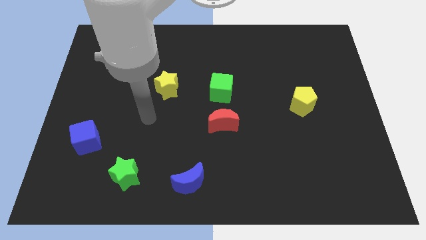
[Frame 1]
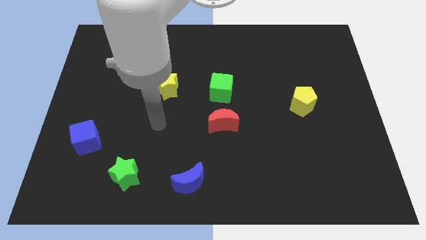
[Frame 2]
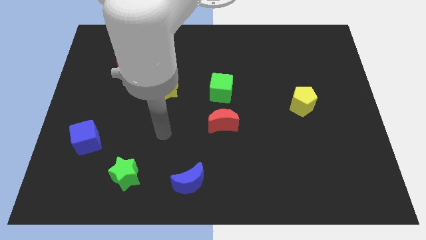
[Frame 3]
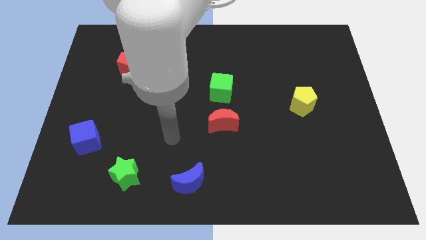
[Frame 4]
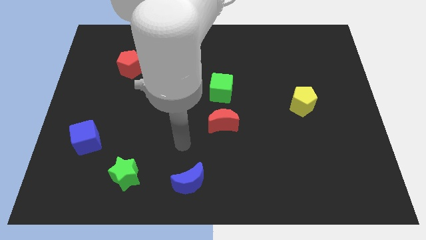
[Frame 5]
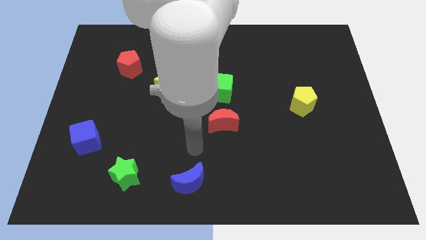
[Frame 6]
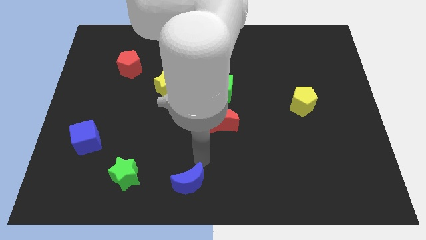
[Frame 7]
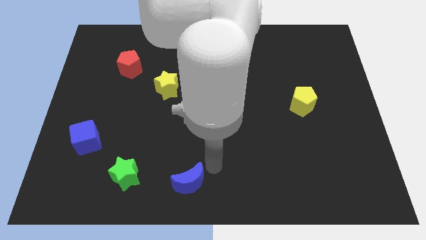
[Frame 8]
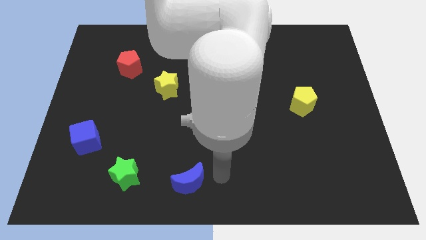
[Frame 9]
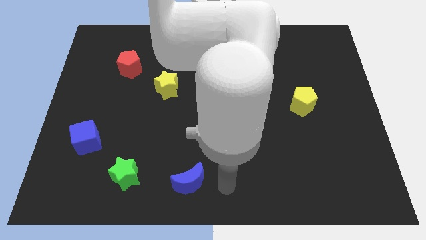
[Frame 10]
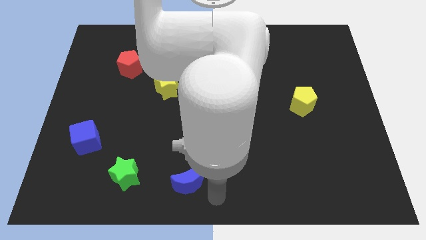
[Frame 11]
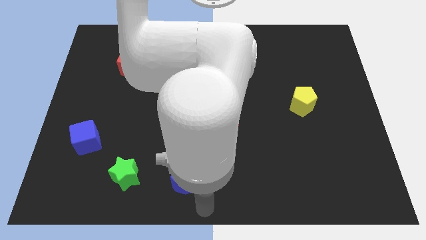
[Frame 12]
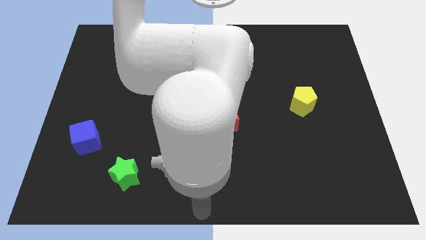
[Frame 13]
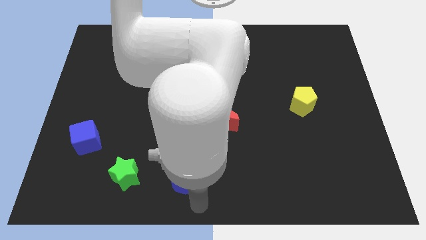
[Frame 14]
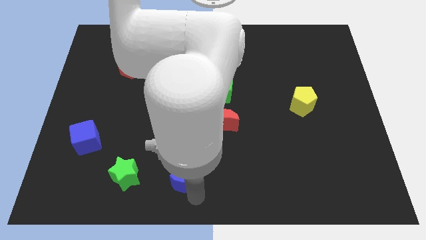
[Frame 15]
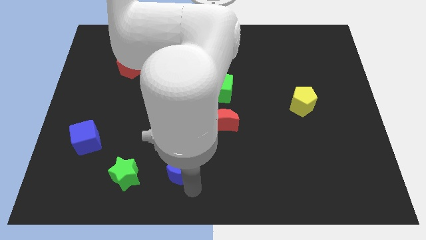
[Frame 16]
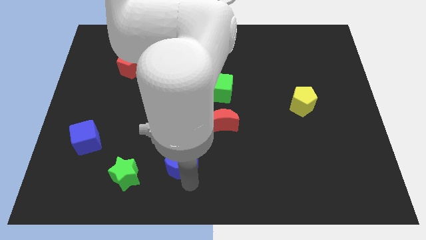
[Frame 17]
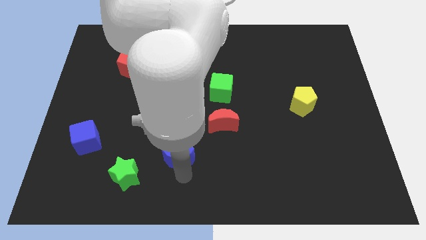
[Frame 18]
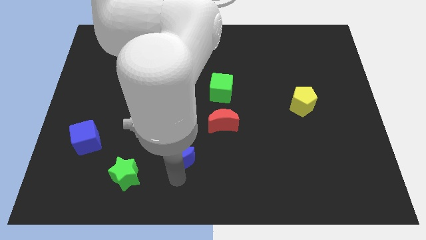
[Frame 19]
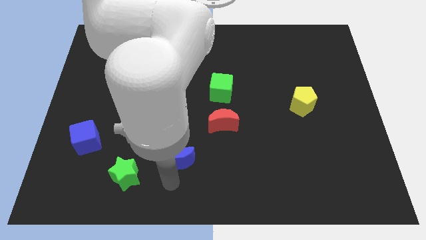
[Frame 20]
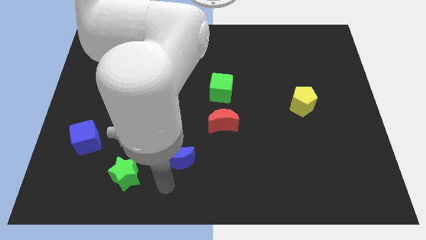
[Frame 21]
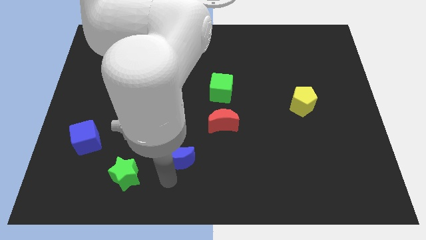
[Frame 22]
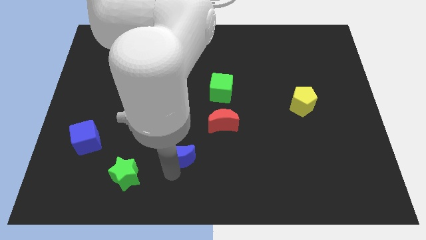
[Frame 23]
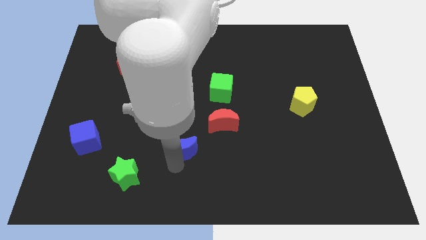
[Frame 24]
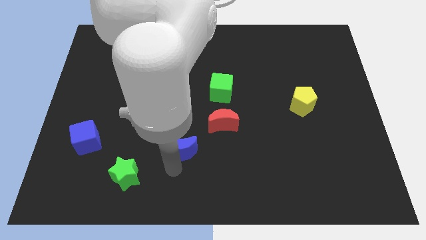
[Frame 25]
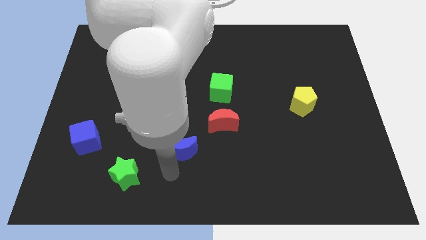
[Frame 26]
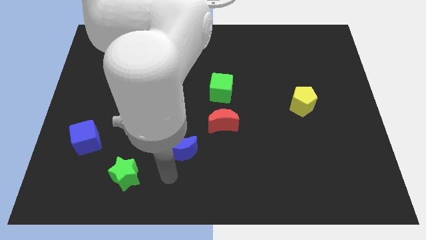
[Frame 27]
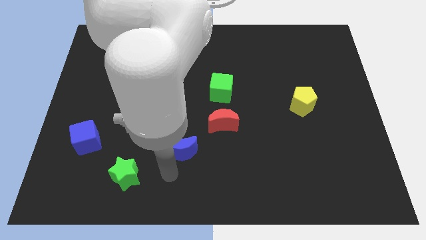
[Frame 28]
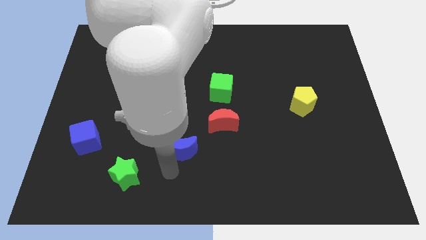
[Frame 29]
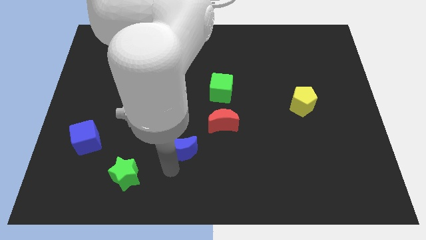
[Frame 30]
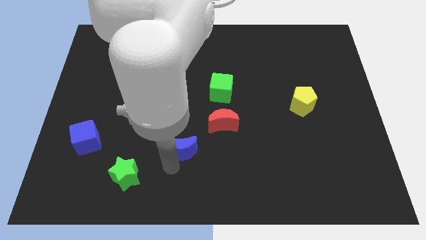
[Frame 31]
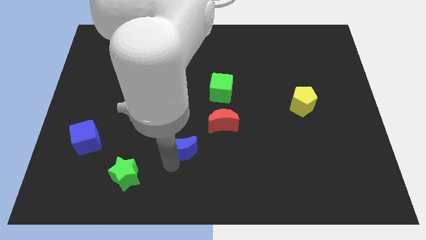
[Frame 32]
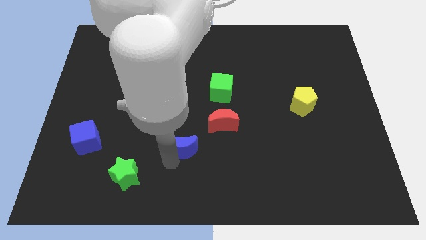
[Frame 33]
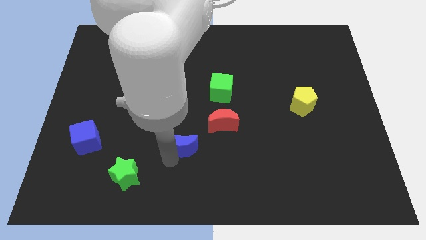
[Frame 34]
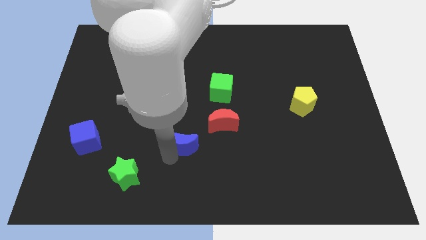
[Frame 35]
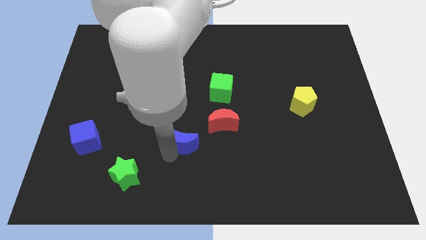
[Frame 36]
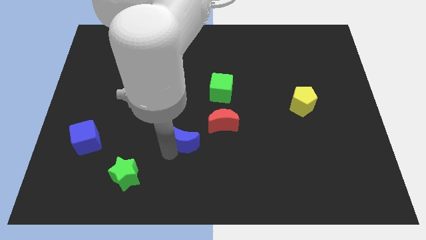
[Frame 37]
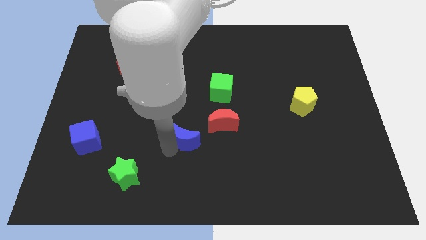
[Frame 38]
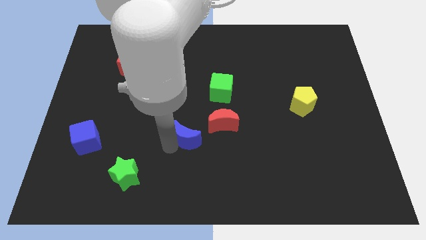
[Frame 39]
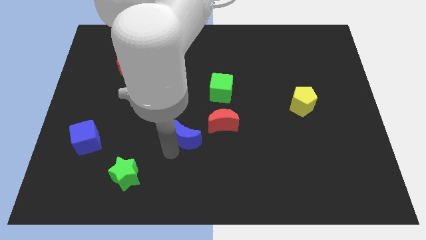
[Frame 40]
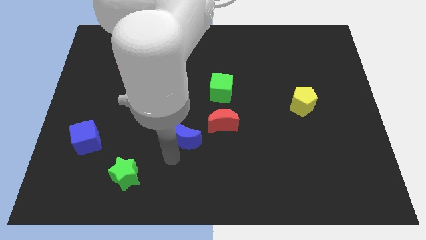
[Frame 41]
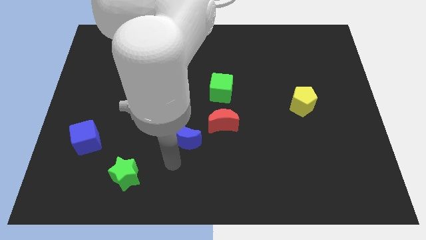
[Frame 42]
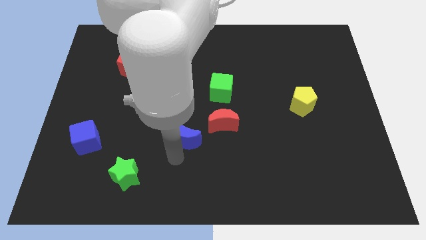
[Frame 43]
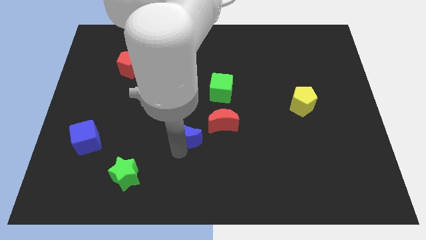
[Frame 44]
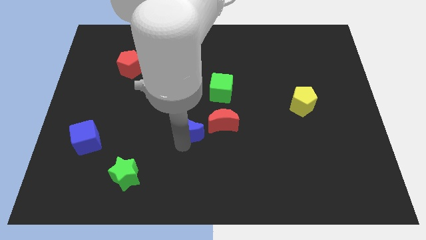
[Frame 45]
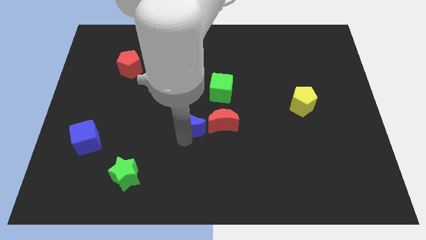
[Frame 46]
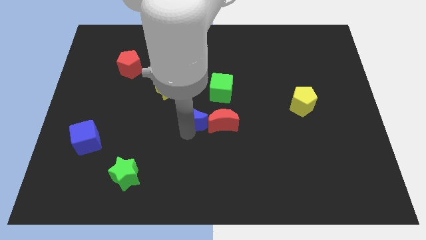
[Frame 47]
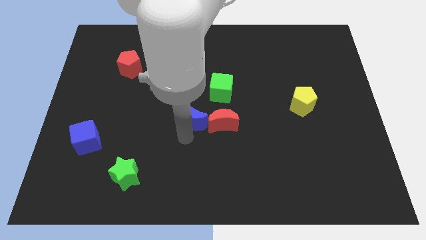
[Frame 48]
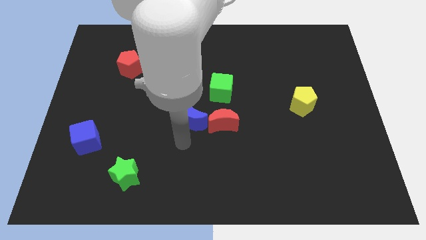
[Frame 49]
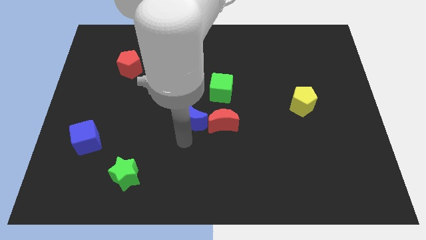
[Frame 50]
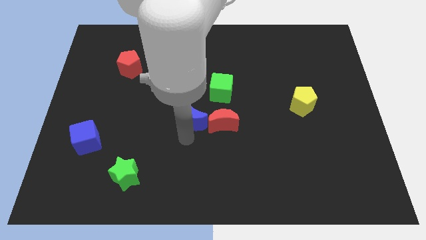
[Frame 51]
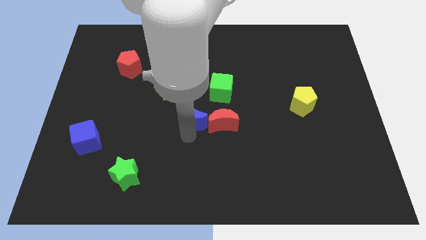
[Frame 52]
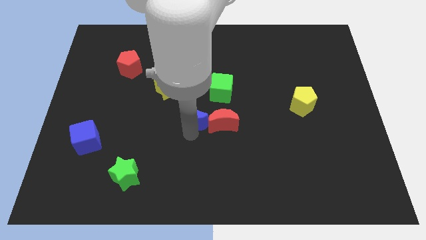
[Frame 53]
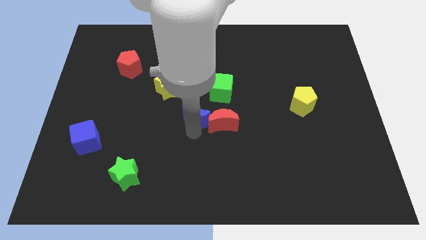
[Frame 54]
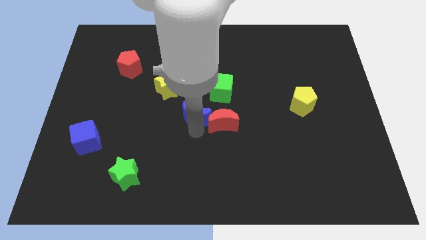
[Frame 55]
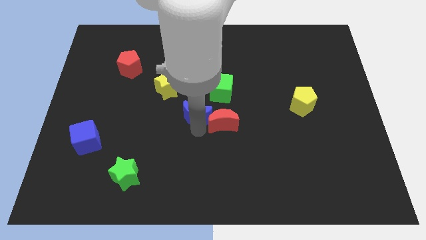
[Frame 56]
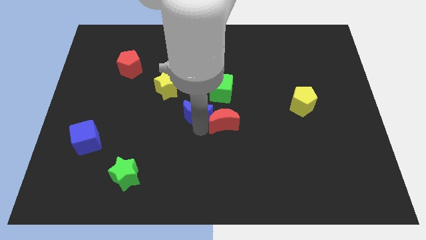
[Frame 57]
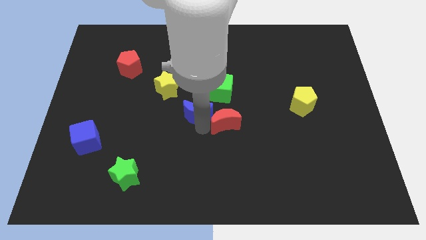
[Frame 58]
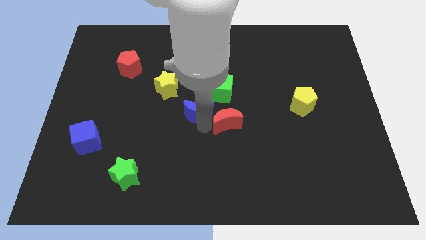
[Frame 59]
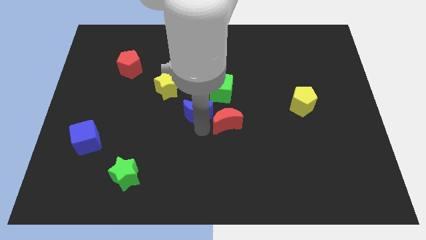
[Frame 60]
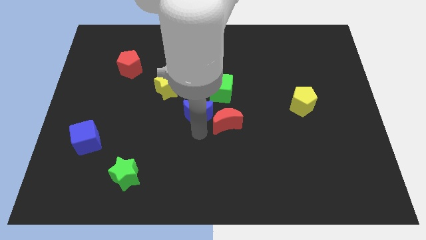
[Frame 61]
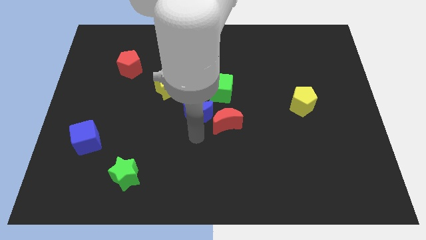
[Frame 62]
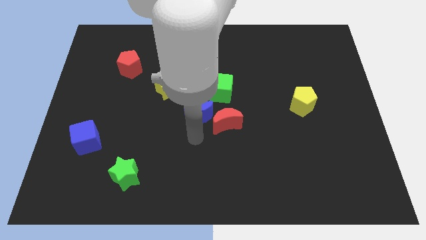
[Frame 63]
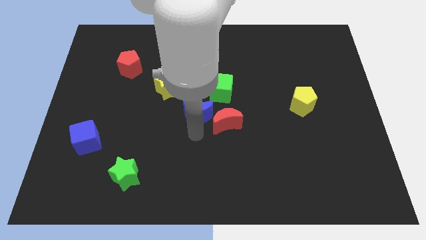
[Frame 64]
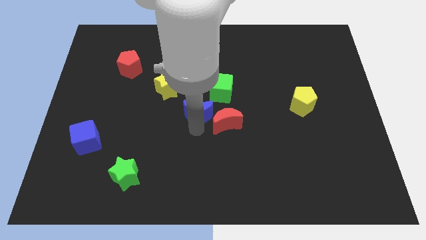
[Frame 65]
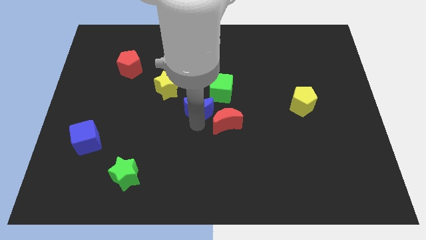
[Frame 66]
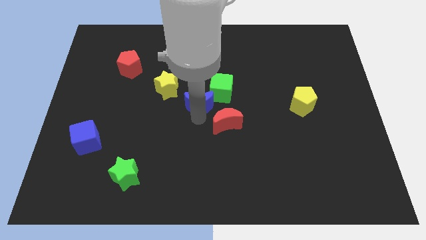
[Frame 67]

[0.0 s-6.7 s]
push the blue moon upwards

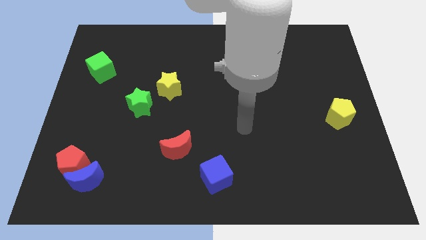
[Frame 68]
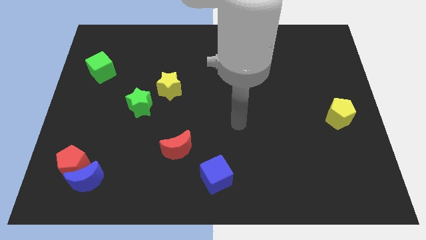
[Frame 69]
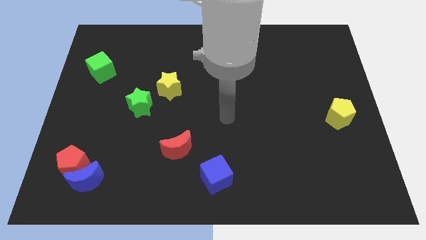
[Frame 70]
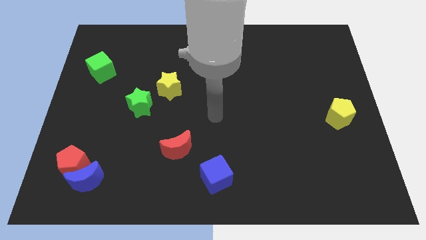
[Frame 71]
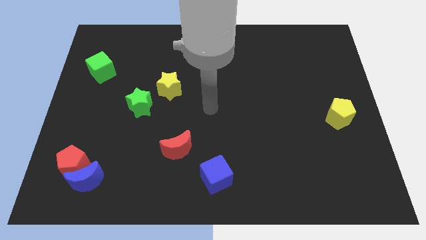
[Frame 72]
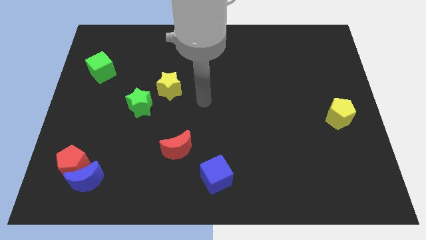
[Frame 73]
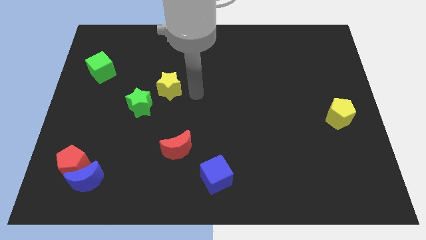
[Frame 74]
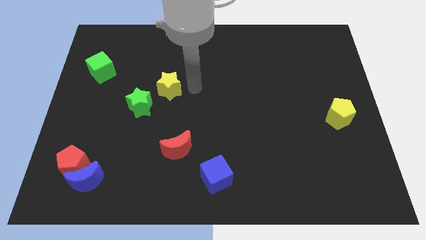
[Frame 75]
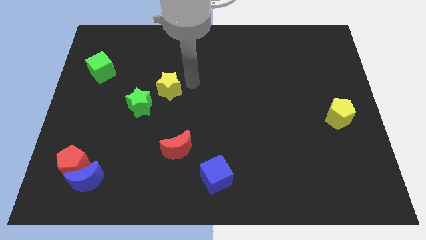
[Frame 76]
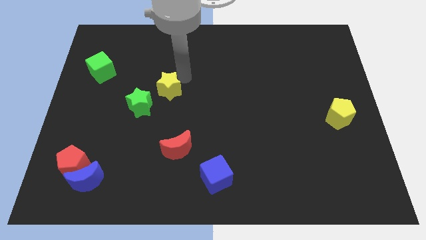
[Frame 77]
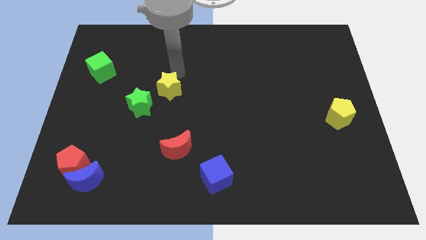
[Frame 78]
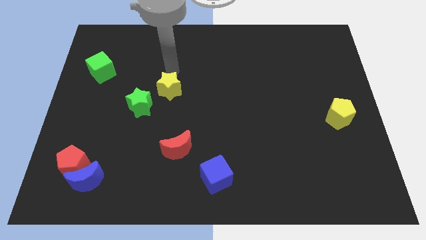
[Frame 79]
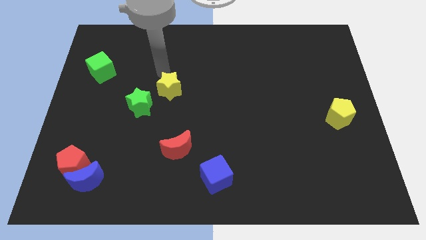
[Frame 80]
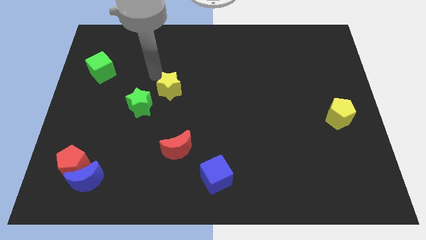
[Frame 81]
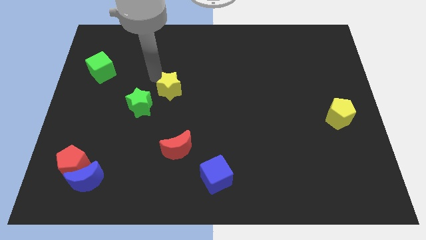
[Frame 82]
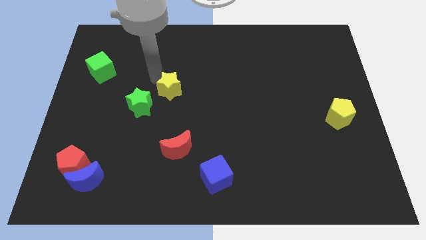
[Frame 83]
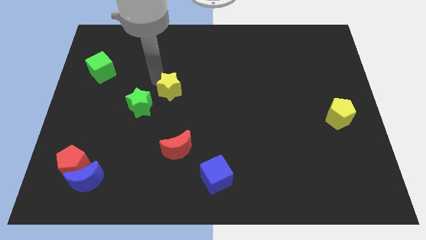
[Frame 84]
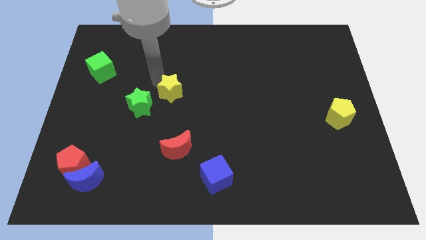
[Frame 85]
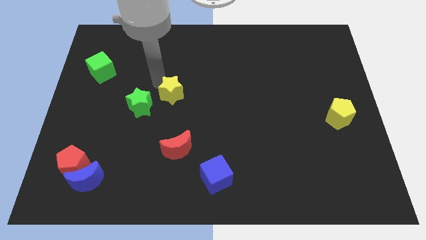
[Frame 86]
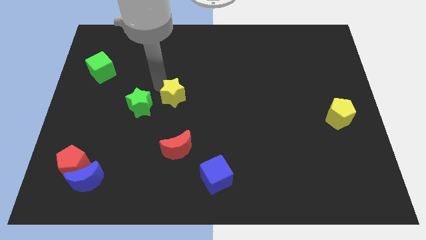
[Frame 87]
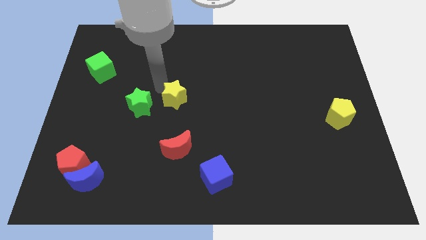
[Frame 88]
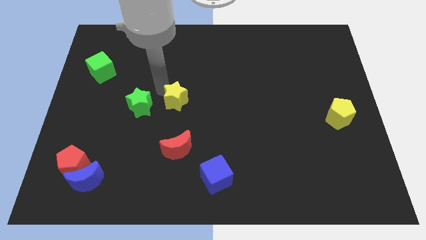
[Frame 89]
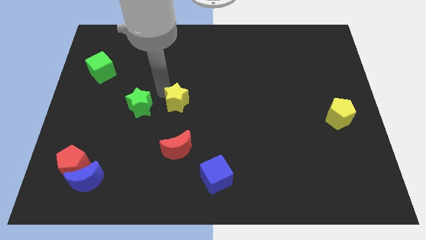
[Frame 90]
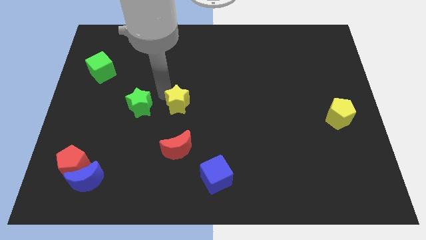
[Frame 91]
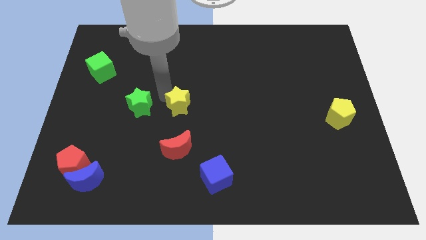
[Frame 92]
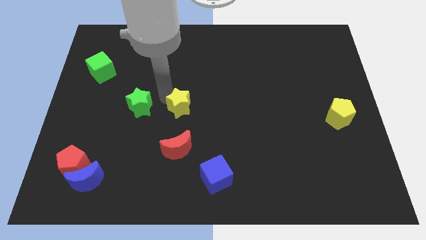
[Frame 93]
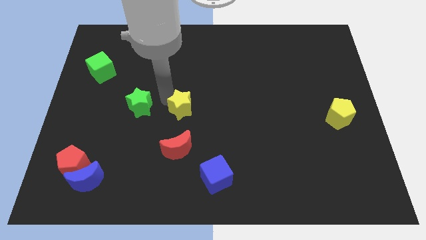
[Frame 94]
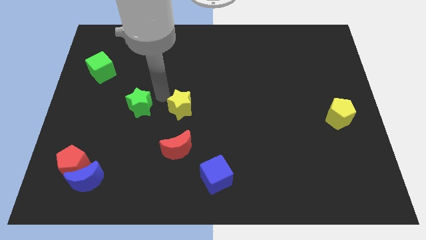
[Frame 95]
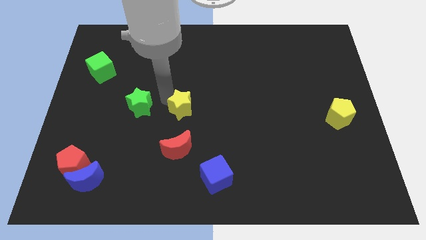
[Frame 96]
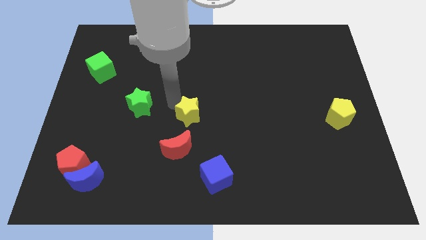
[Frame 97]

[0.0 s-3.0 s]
move the yellow star downwards and to the right slightly
